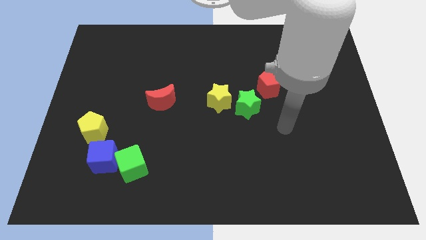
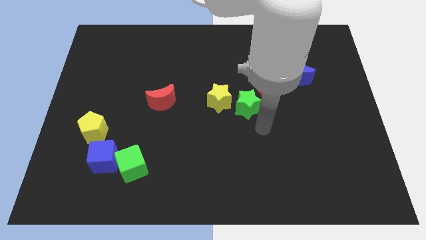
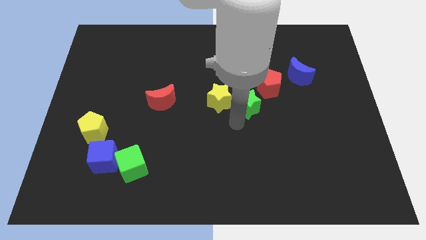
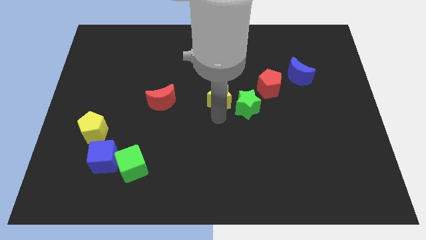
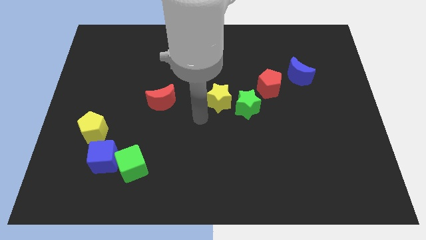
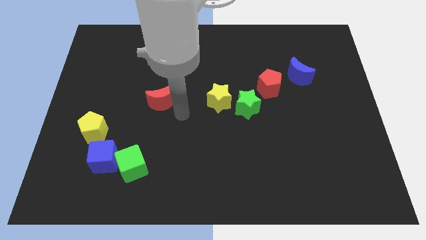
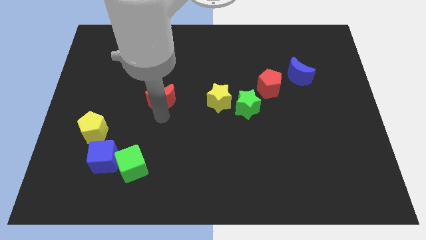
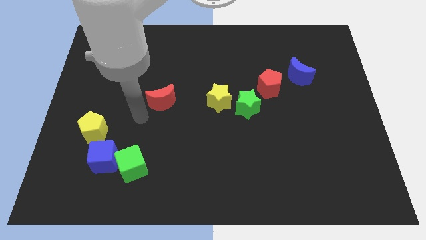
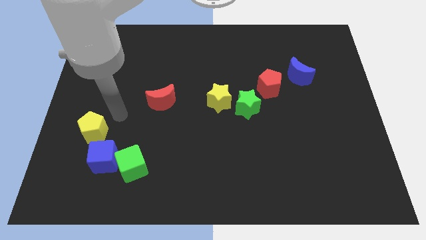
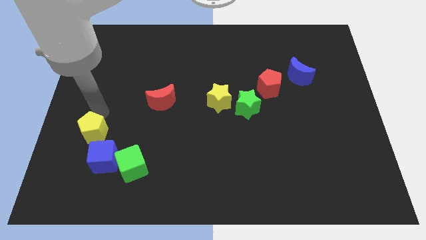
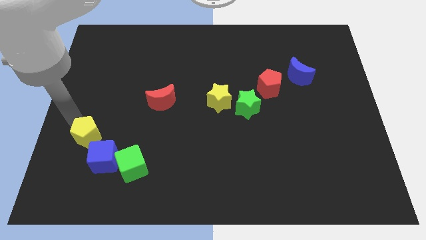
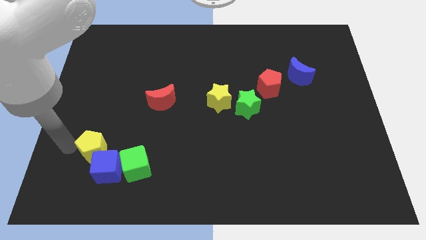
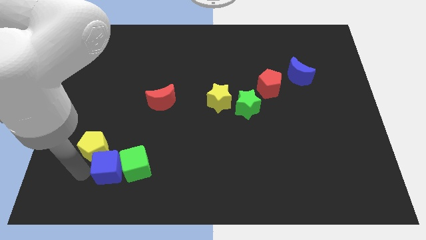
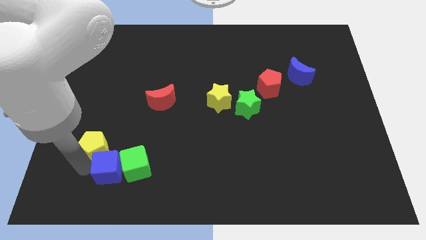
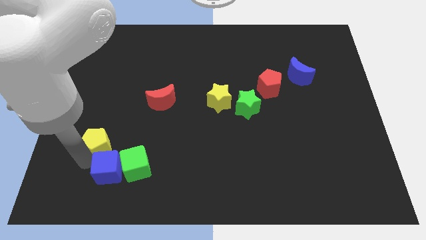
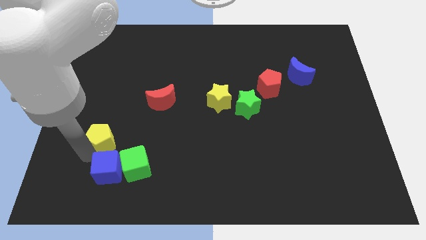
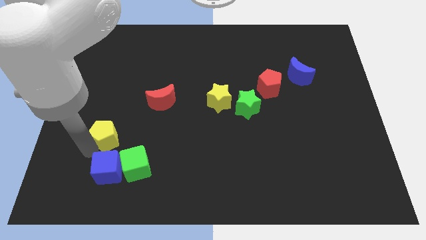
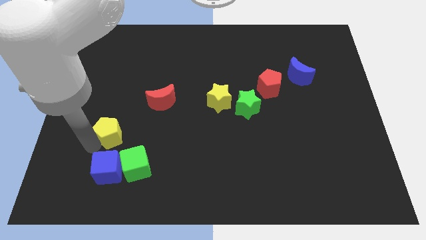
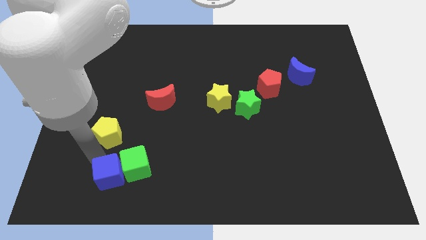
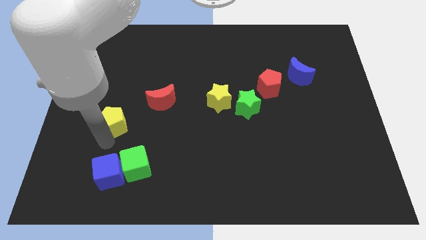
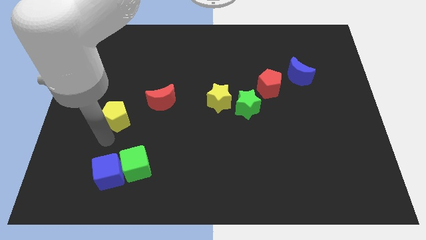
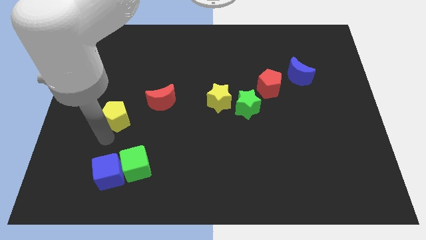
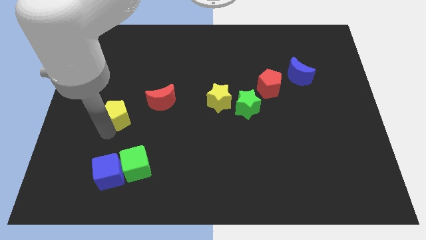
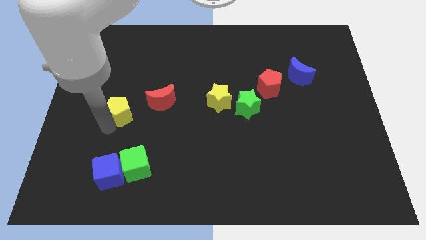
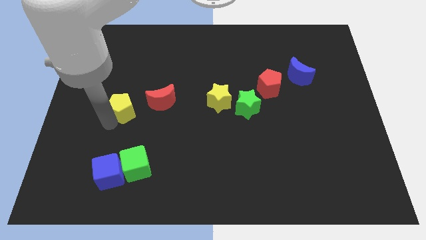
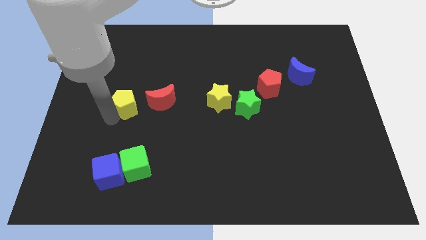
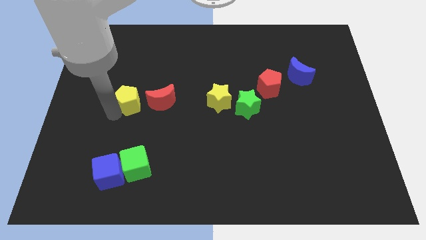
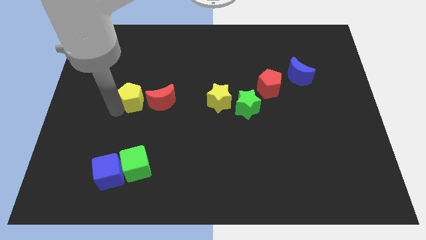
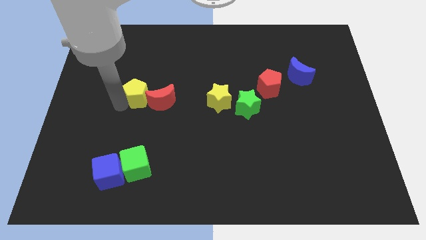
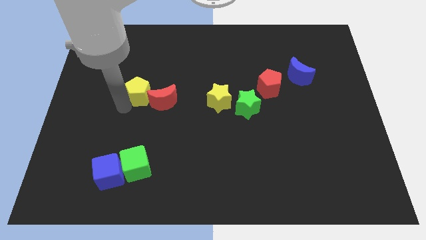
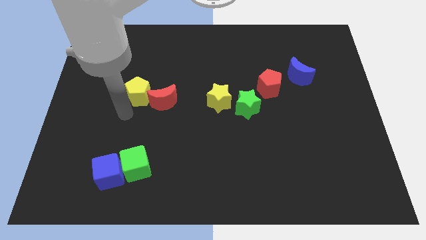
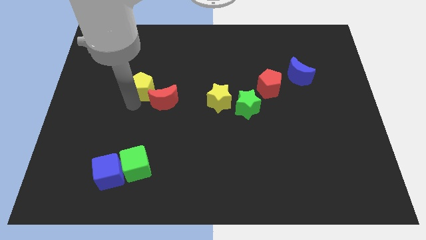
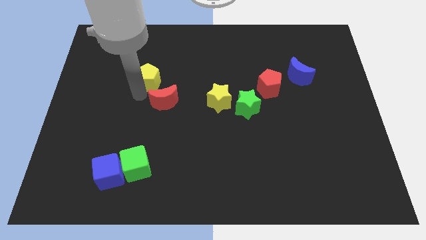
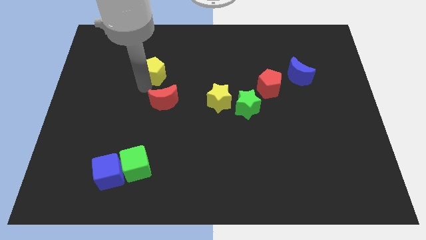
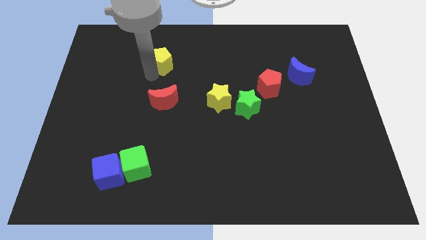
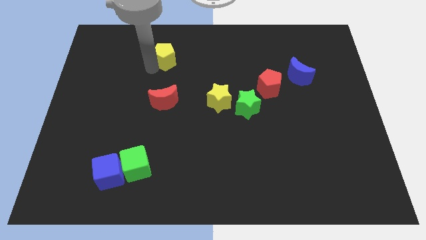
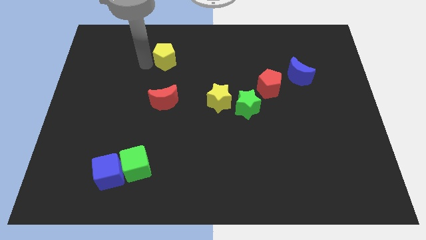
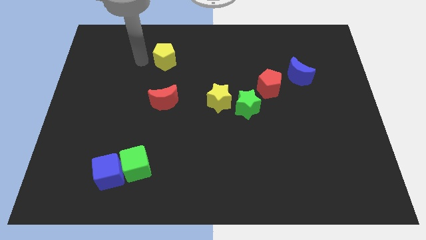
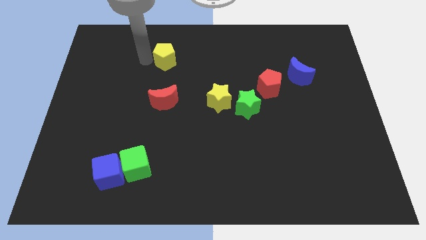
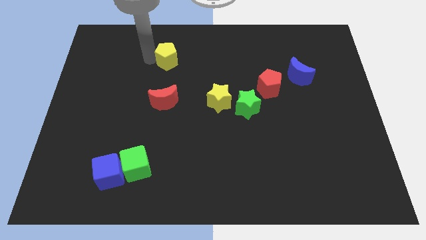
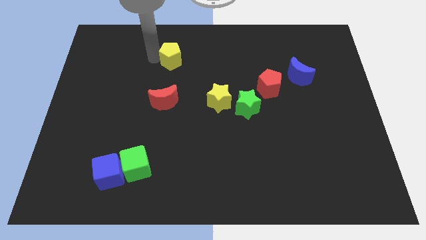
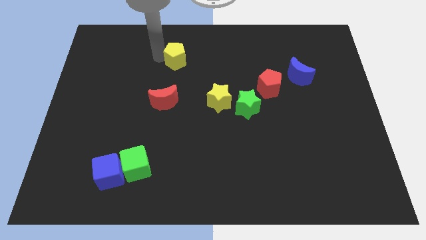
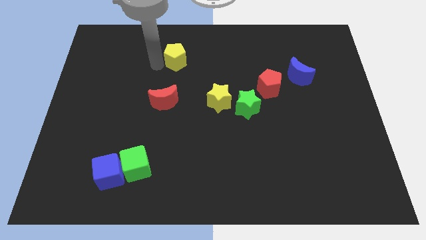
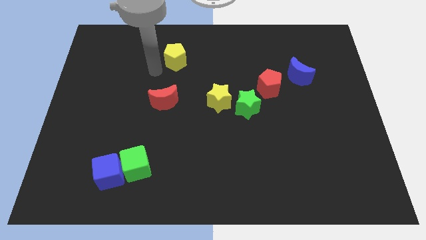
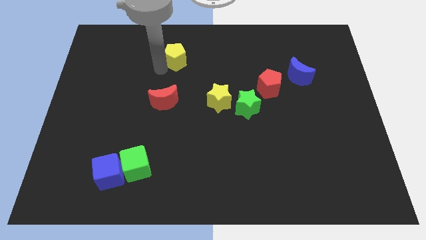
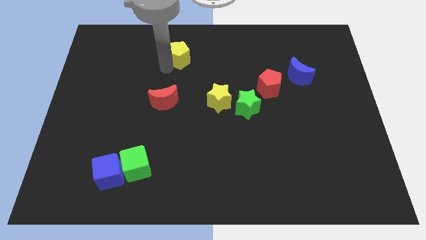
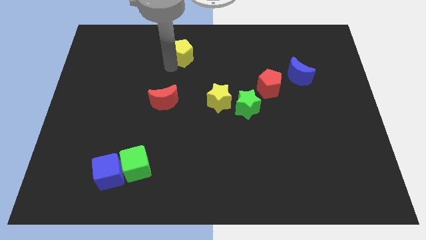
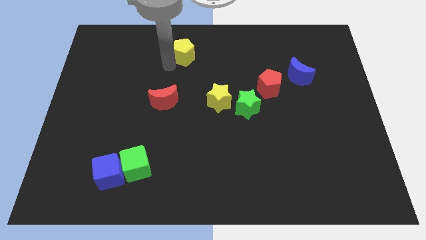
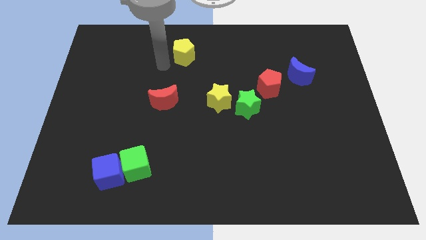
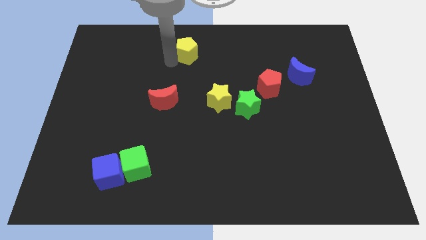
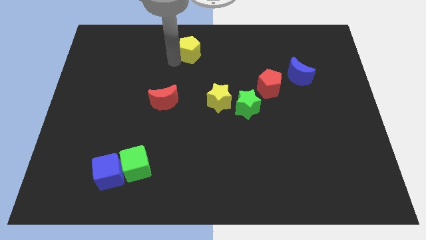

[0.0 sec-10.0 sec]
put the yellow pentagon to the top side
